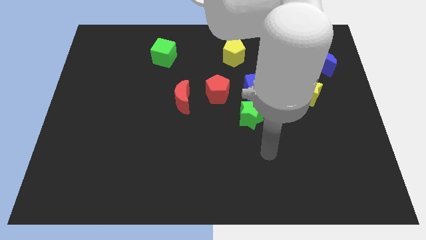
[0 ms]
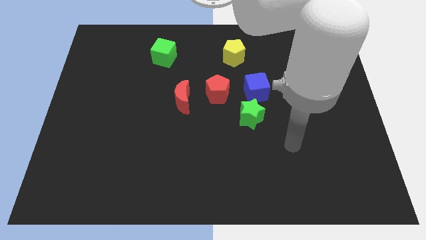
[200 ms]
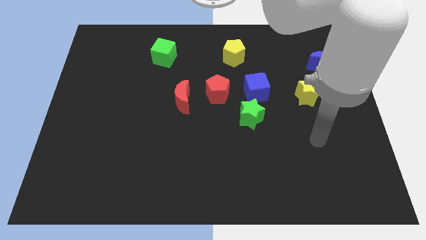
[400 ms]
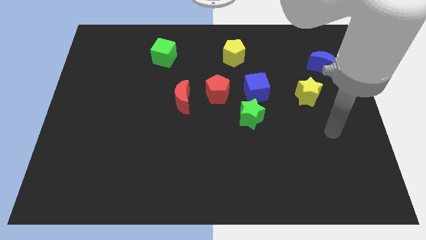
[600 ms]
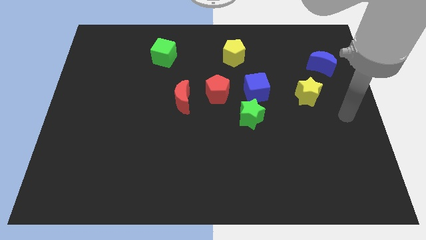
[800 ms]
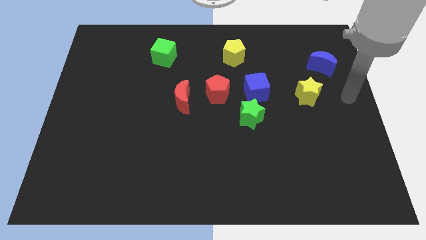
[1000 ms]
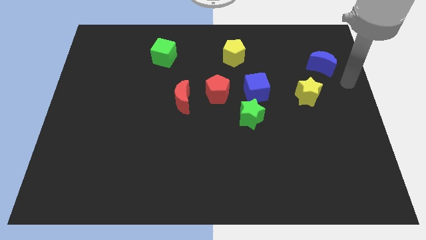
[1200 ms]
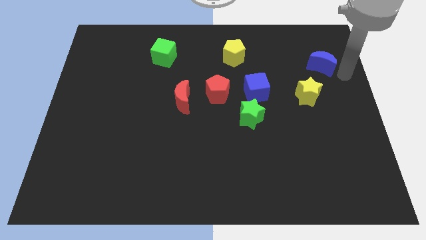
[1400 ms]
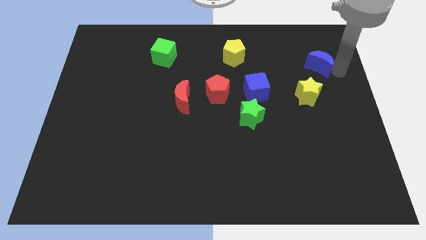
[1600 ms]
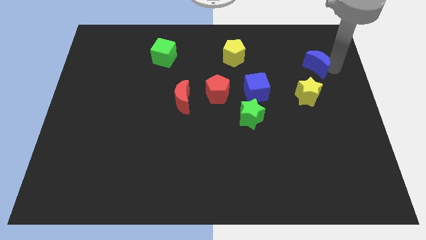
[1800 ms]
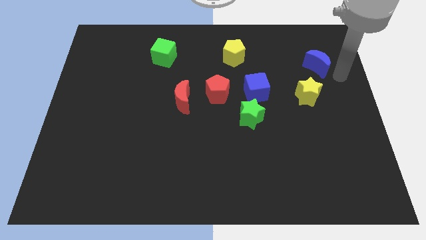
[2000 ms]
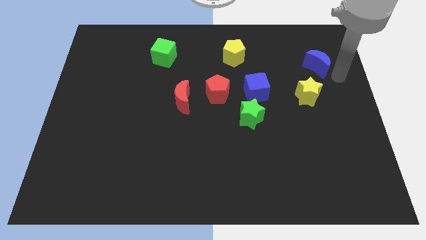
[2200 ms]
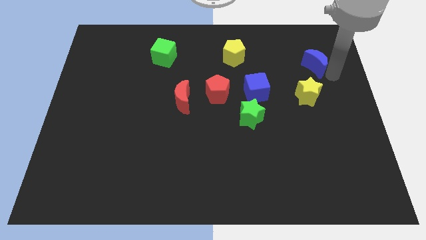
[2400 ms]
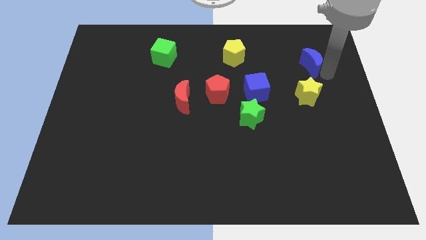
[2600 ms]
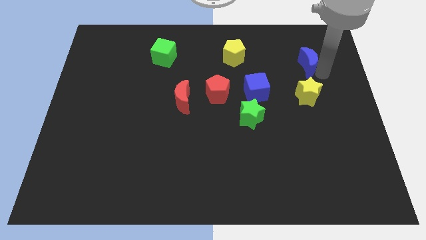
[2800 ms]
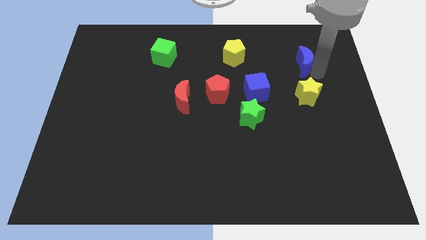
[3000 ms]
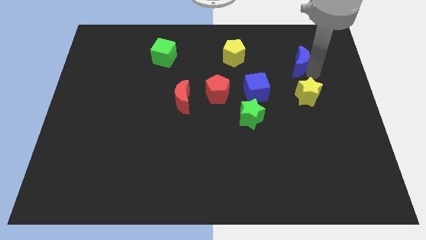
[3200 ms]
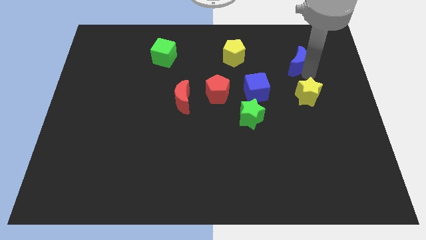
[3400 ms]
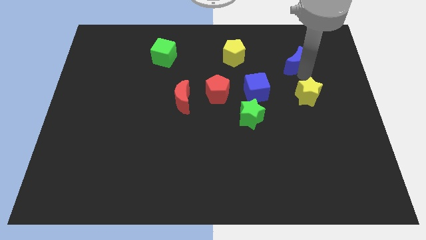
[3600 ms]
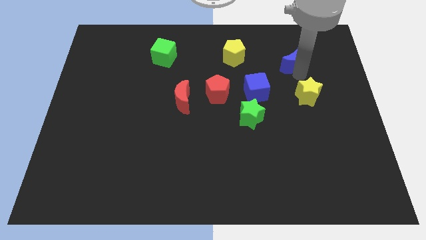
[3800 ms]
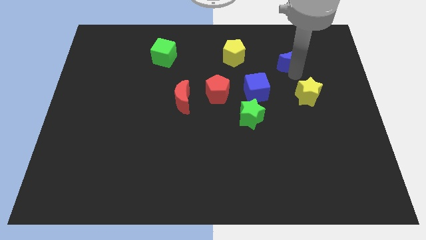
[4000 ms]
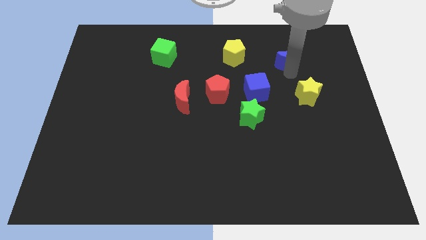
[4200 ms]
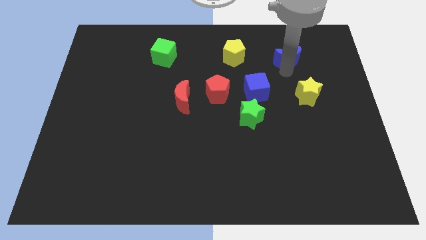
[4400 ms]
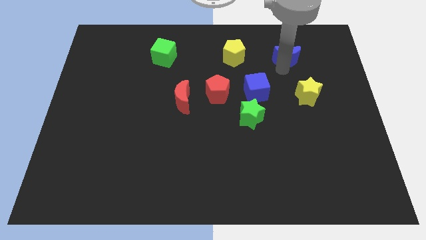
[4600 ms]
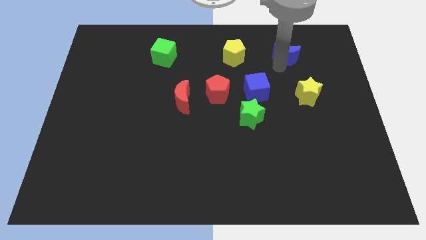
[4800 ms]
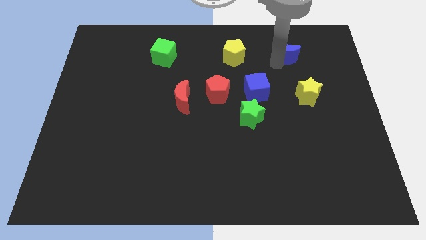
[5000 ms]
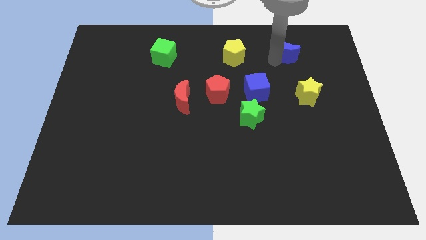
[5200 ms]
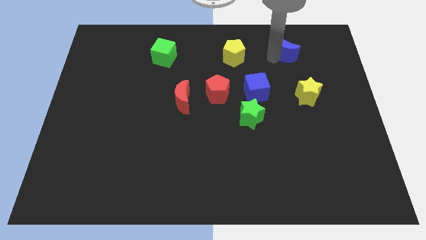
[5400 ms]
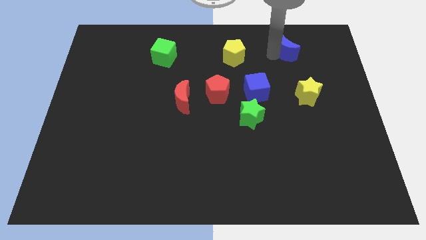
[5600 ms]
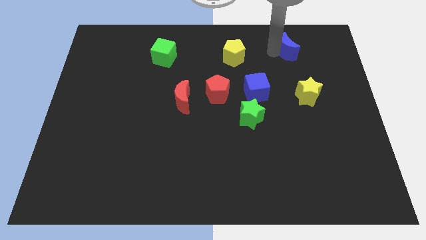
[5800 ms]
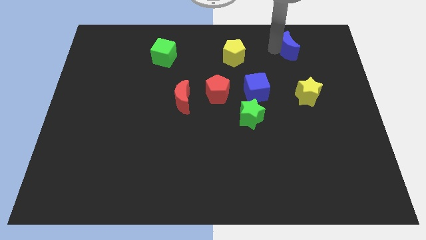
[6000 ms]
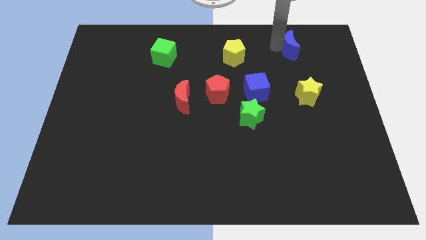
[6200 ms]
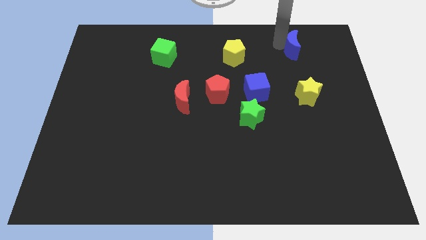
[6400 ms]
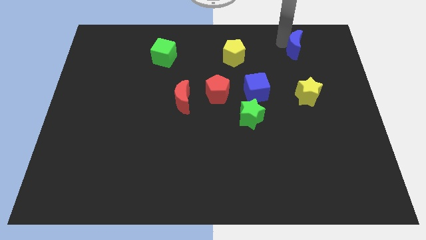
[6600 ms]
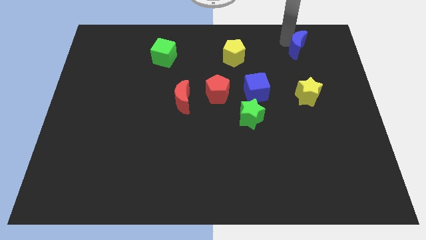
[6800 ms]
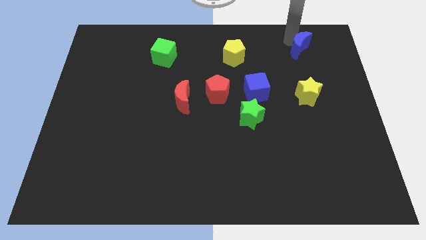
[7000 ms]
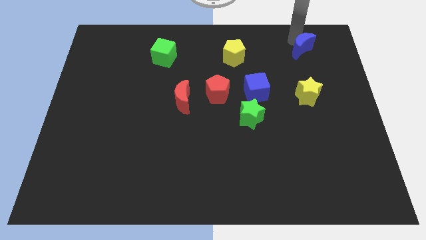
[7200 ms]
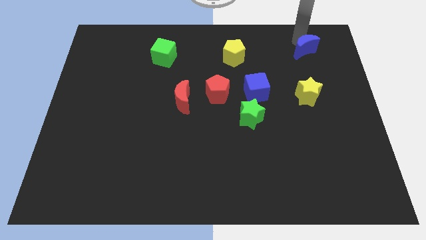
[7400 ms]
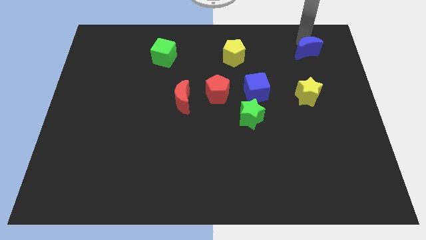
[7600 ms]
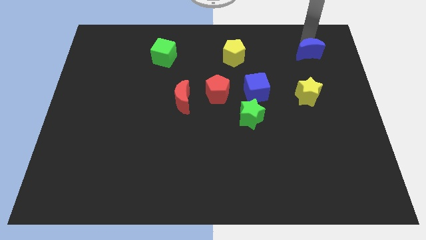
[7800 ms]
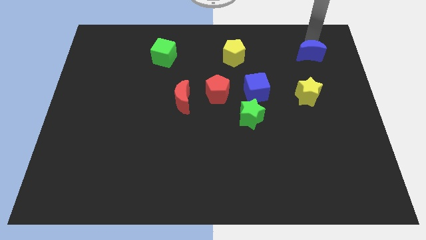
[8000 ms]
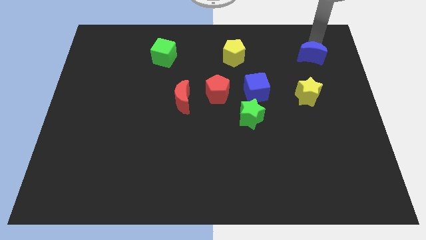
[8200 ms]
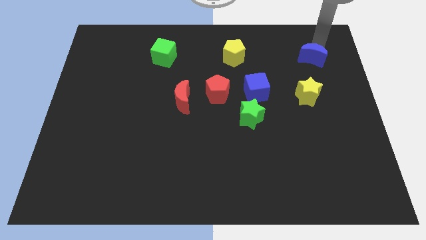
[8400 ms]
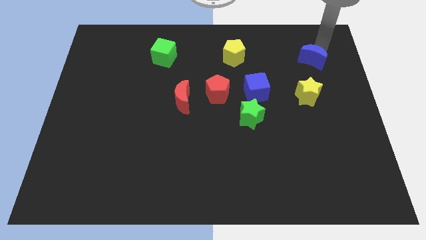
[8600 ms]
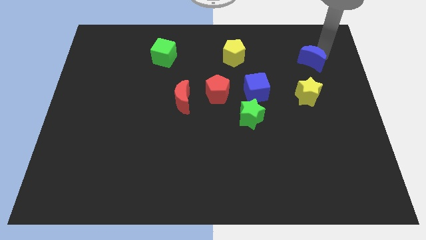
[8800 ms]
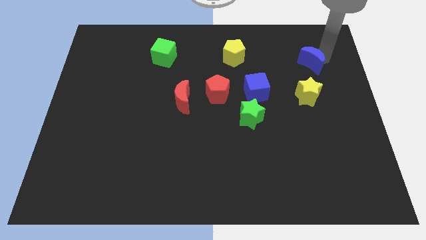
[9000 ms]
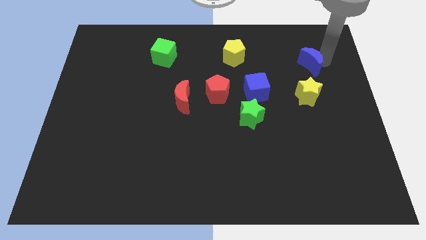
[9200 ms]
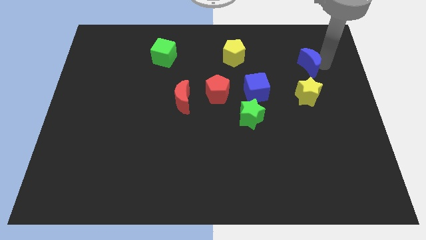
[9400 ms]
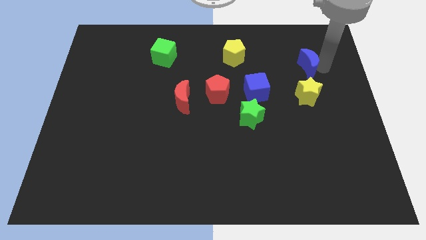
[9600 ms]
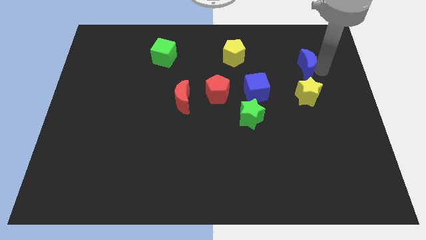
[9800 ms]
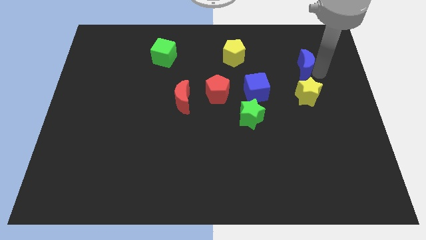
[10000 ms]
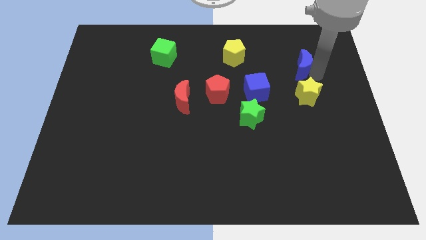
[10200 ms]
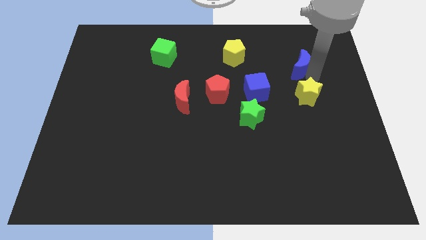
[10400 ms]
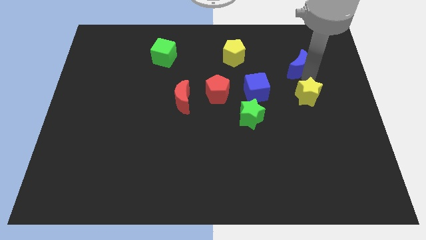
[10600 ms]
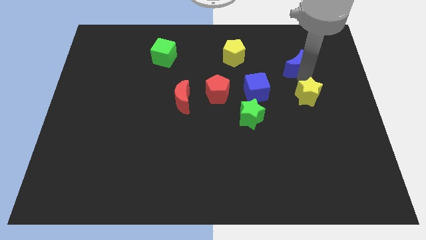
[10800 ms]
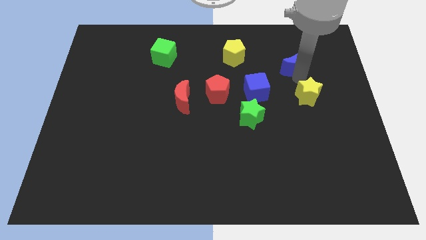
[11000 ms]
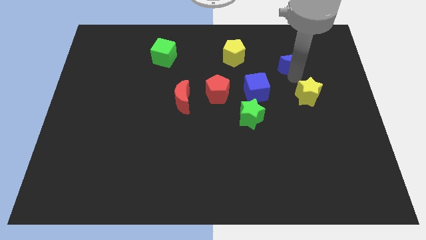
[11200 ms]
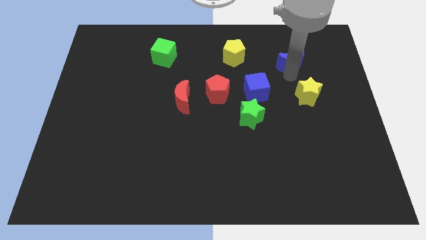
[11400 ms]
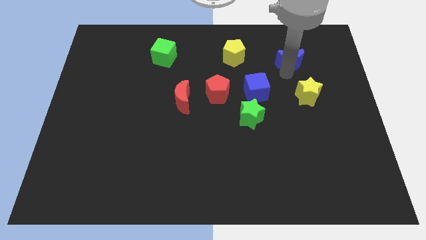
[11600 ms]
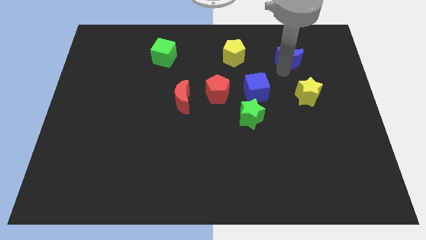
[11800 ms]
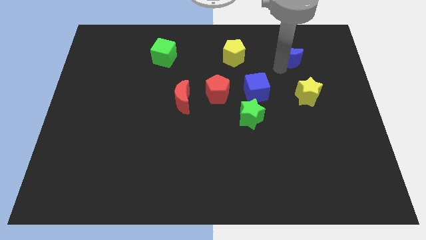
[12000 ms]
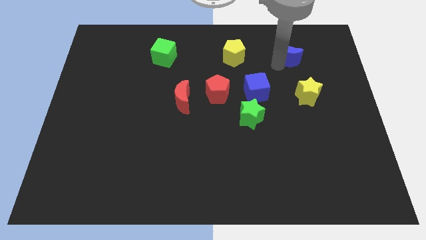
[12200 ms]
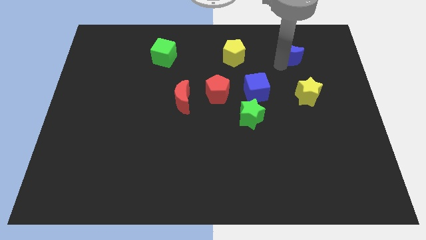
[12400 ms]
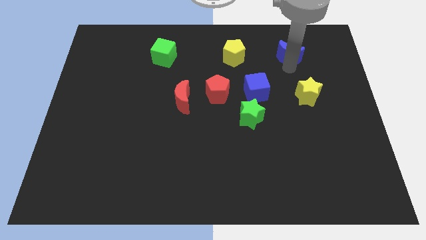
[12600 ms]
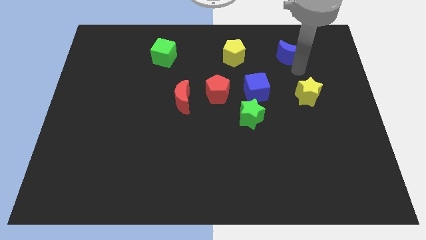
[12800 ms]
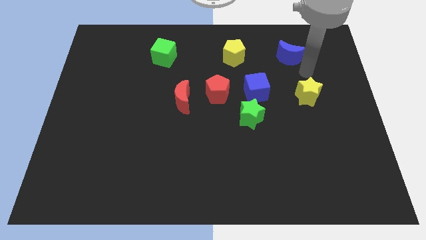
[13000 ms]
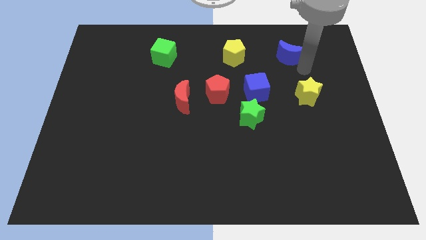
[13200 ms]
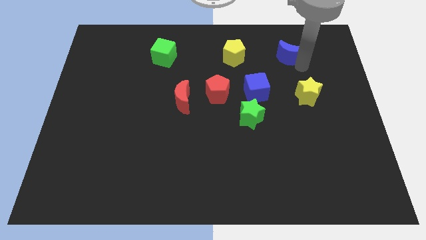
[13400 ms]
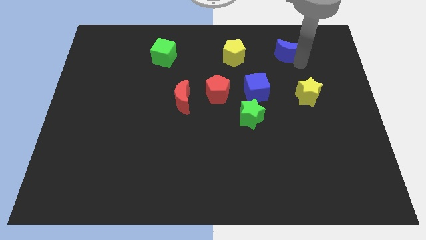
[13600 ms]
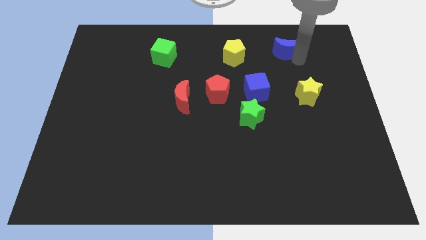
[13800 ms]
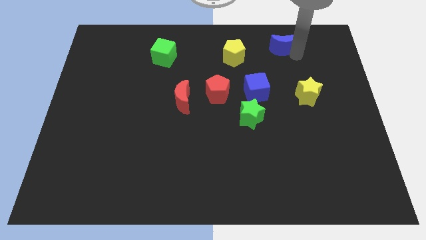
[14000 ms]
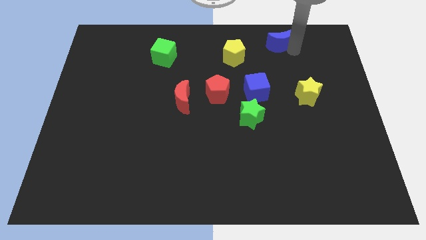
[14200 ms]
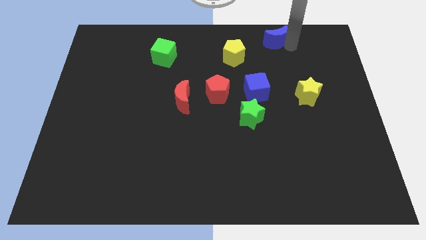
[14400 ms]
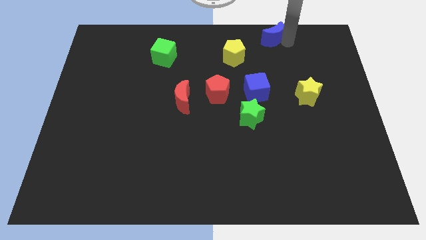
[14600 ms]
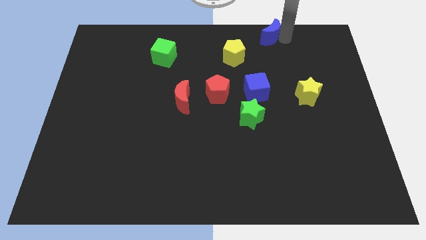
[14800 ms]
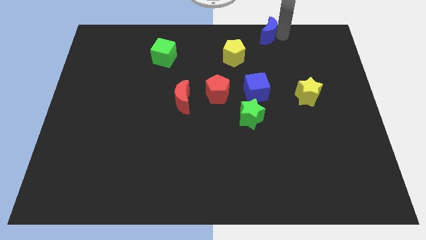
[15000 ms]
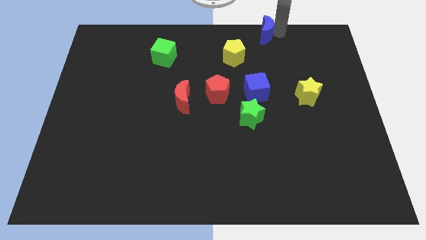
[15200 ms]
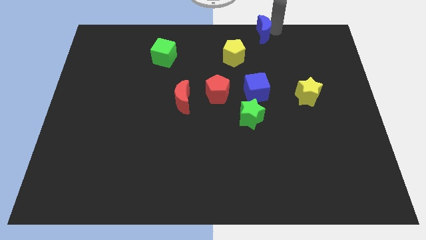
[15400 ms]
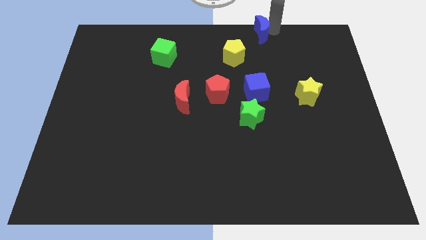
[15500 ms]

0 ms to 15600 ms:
move the blue moon to the top
